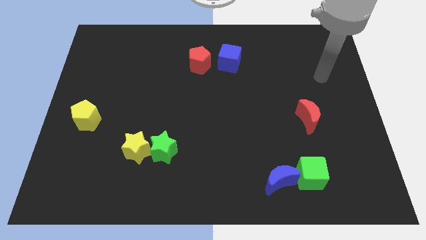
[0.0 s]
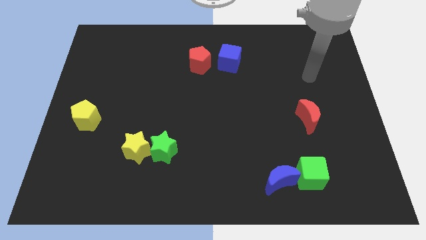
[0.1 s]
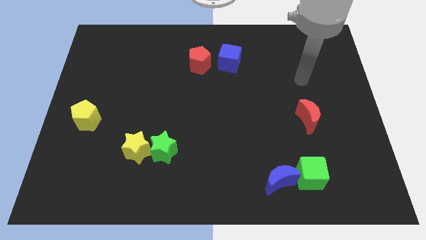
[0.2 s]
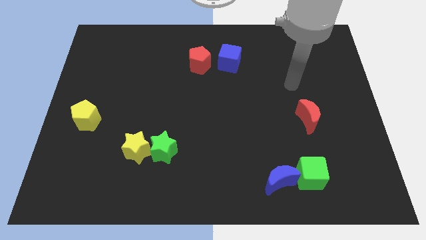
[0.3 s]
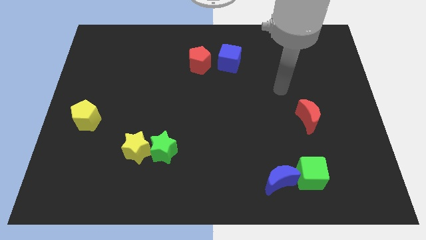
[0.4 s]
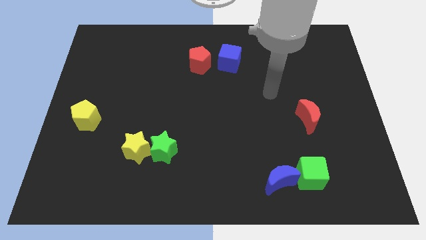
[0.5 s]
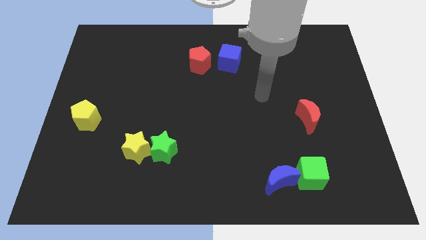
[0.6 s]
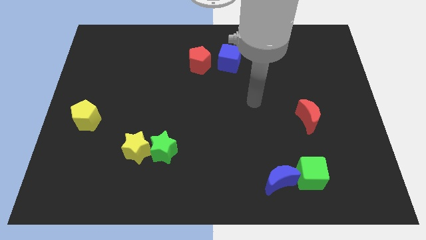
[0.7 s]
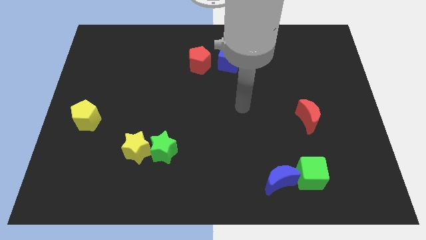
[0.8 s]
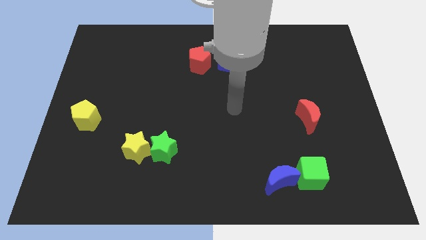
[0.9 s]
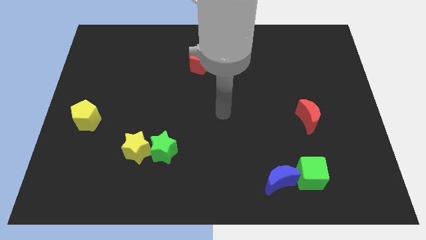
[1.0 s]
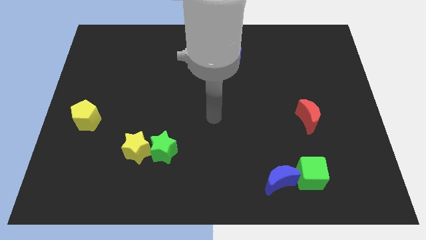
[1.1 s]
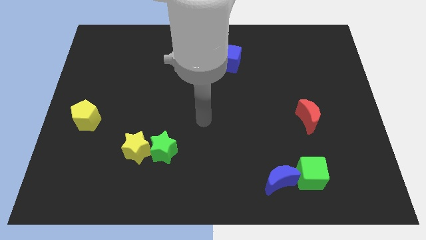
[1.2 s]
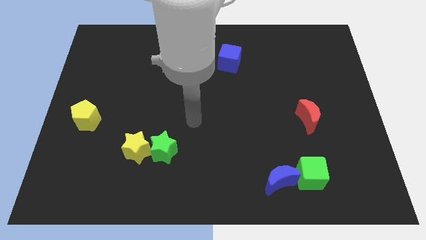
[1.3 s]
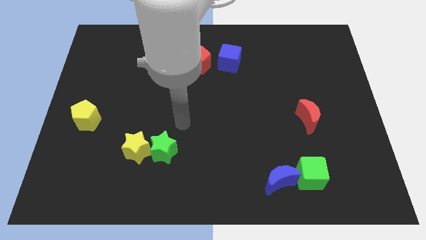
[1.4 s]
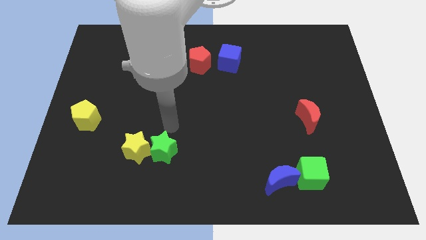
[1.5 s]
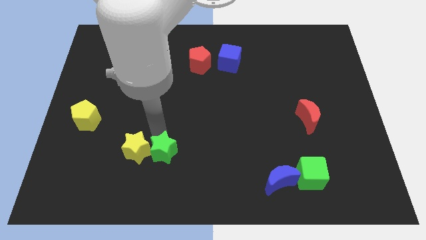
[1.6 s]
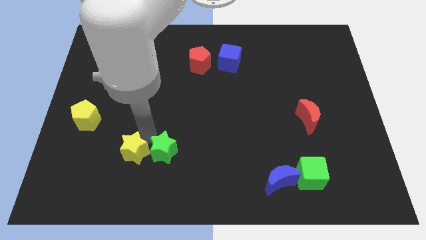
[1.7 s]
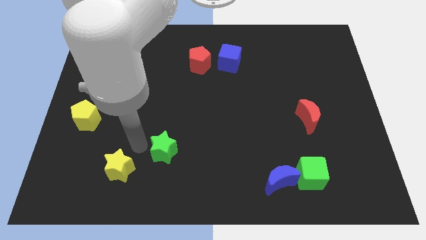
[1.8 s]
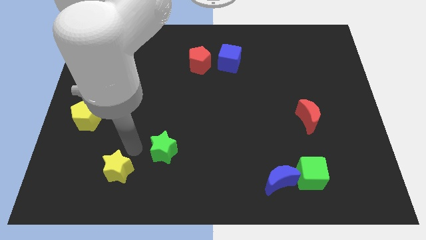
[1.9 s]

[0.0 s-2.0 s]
pull the green star apart from the yellow star

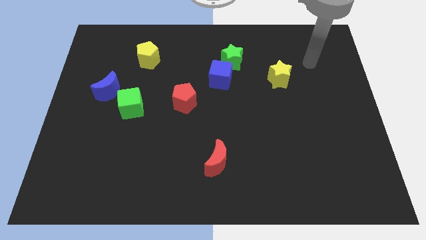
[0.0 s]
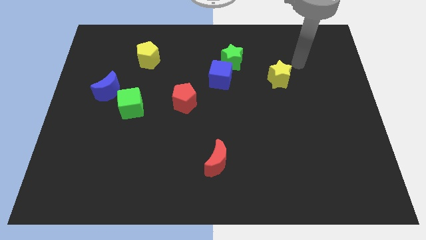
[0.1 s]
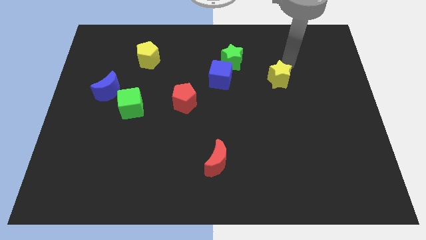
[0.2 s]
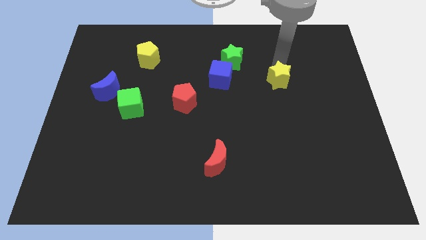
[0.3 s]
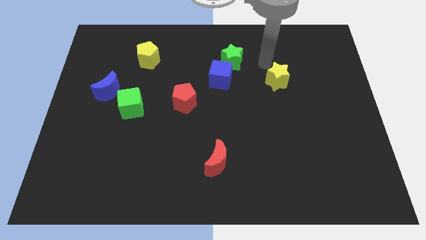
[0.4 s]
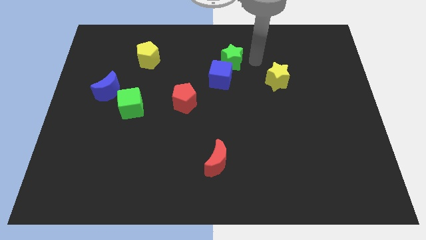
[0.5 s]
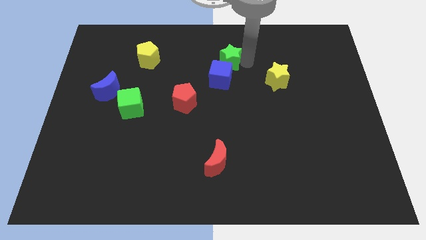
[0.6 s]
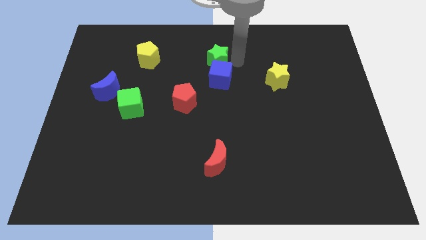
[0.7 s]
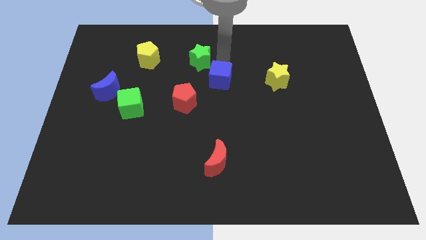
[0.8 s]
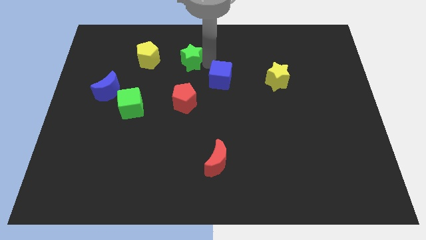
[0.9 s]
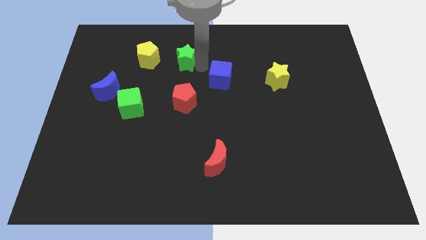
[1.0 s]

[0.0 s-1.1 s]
move the blue cube away from the green star

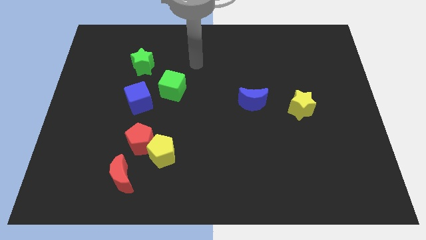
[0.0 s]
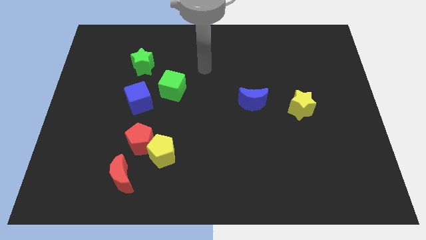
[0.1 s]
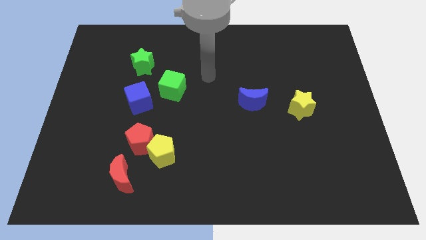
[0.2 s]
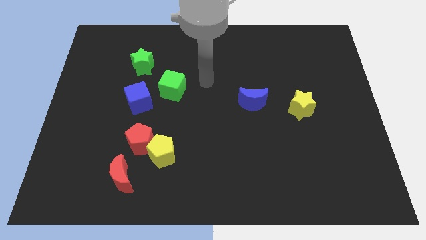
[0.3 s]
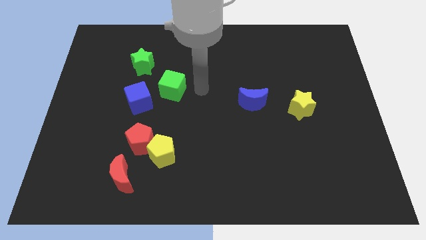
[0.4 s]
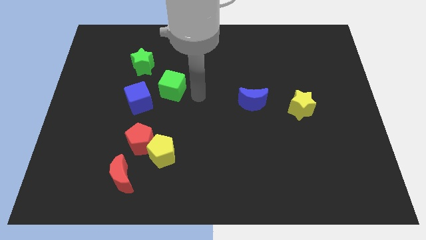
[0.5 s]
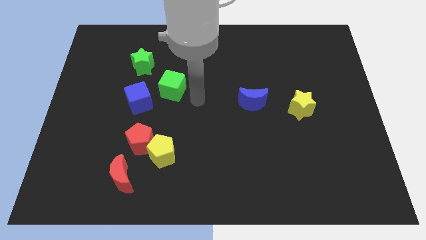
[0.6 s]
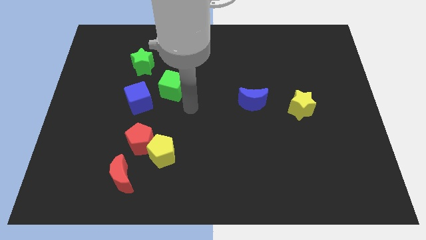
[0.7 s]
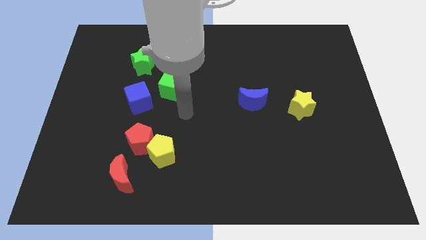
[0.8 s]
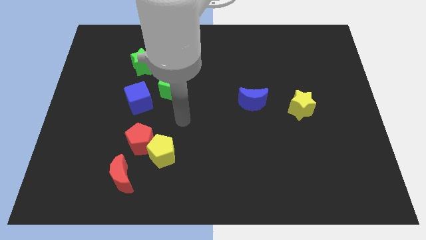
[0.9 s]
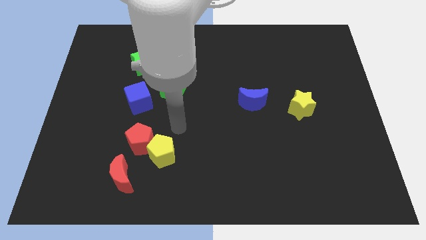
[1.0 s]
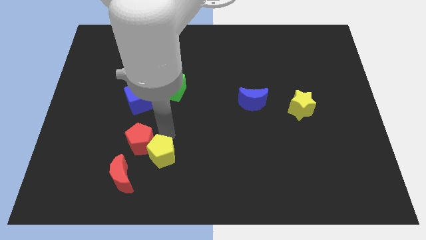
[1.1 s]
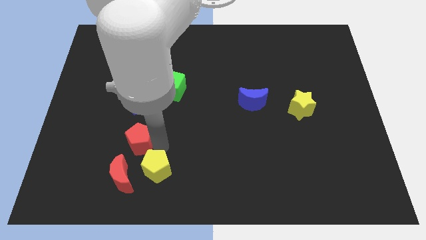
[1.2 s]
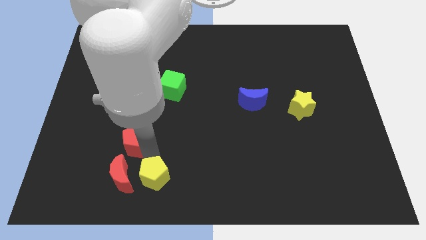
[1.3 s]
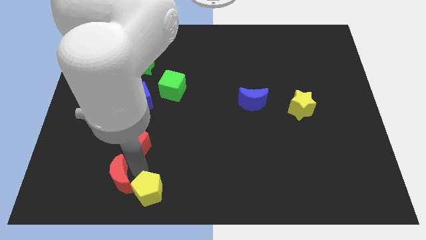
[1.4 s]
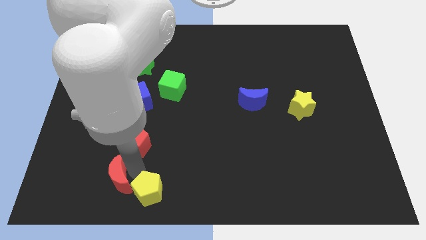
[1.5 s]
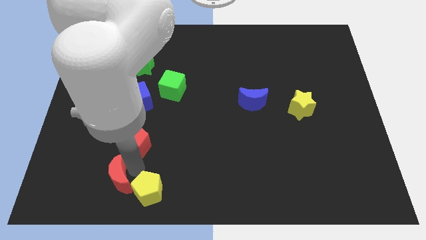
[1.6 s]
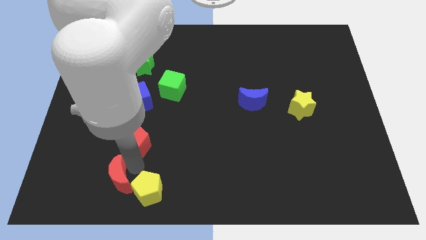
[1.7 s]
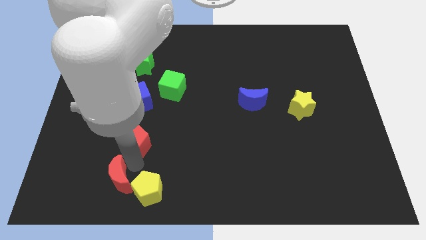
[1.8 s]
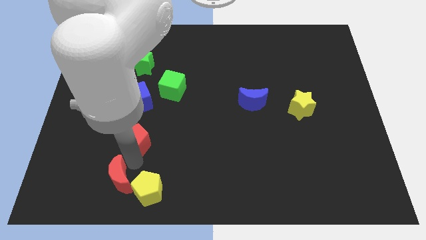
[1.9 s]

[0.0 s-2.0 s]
pull the red pentagon apart from the yellow pentagon and red moon

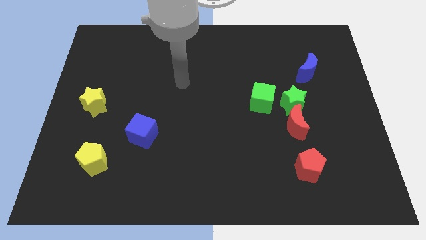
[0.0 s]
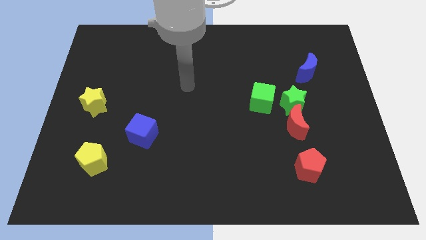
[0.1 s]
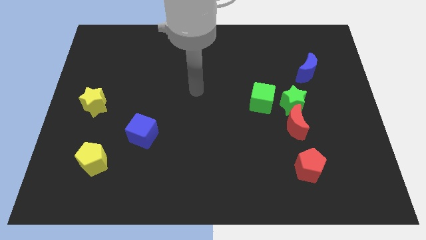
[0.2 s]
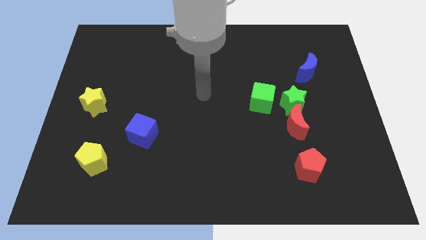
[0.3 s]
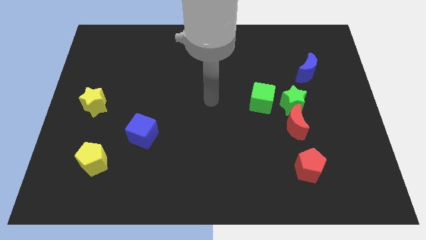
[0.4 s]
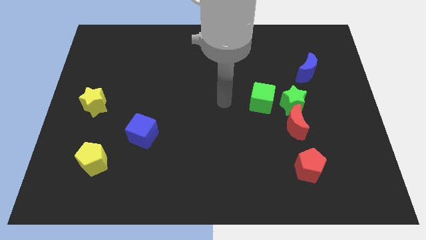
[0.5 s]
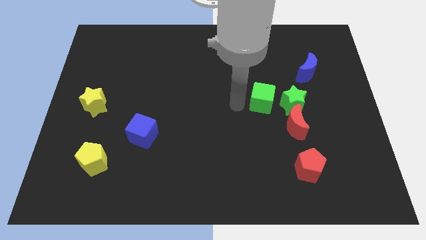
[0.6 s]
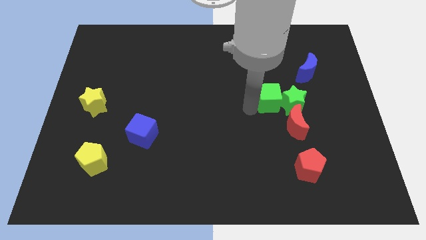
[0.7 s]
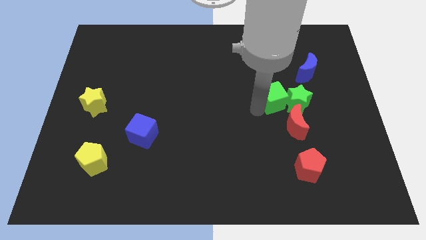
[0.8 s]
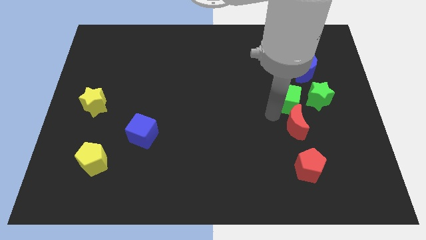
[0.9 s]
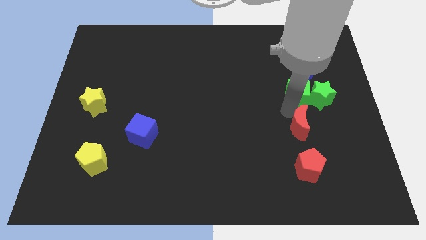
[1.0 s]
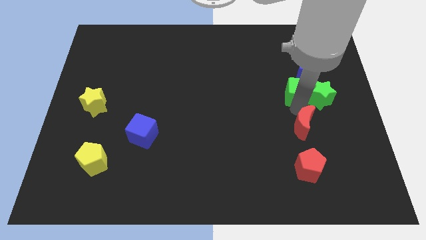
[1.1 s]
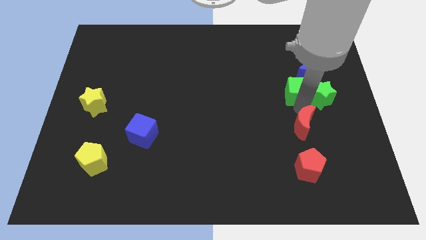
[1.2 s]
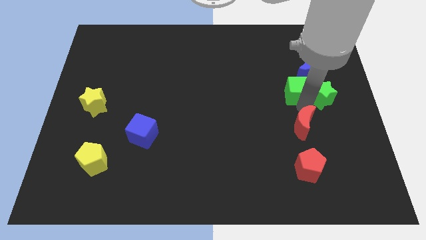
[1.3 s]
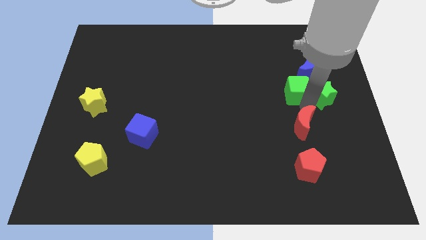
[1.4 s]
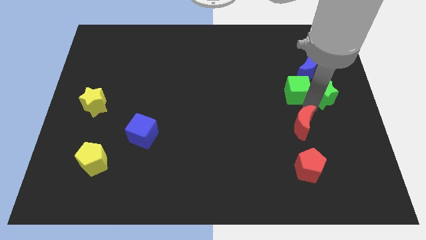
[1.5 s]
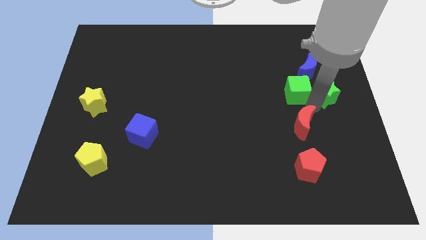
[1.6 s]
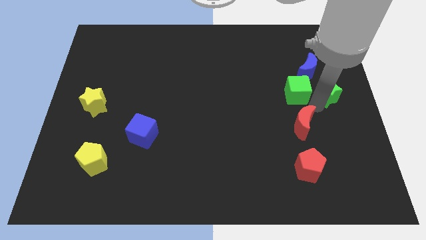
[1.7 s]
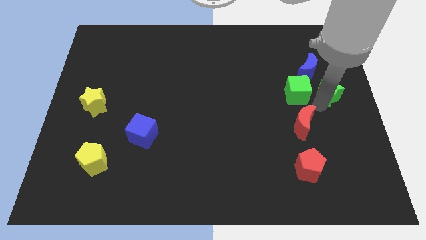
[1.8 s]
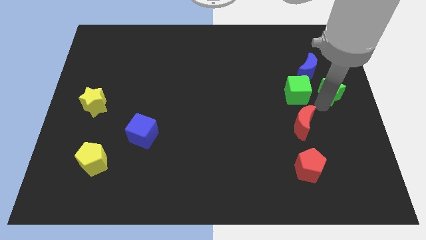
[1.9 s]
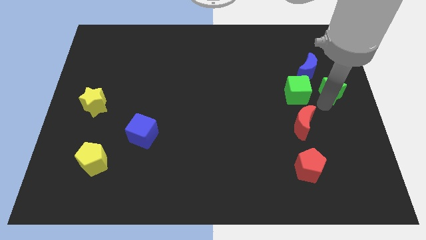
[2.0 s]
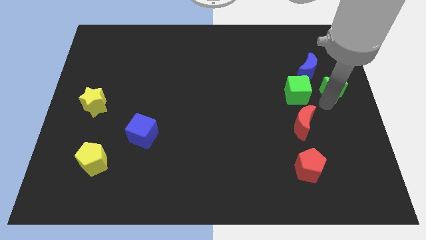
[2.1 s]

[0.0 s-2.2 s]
pull the green star apart from the red moon and green cube

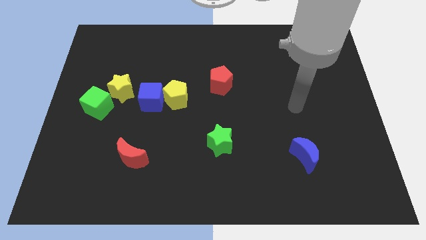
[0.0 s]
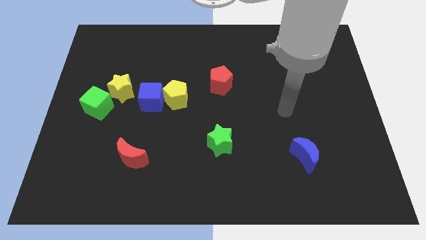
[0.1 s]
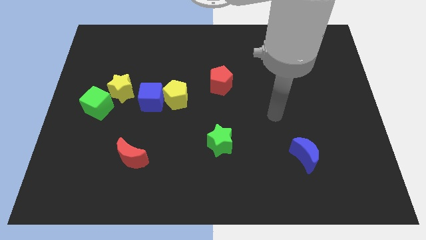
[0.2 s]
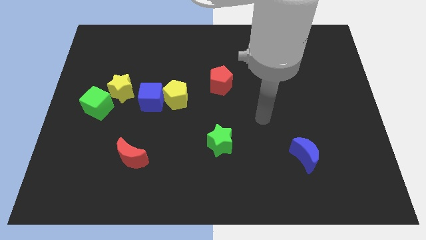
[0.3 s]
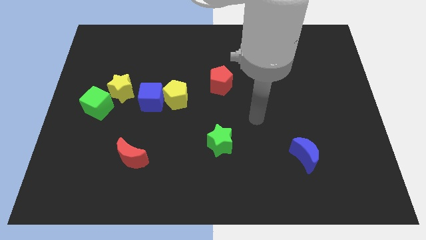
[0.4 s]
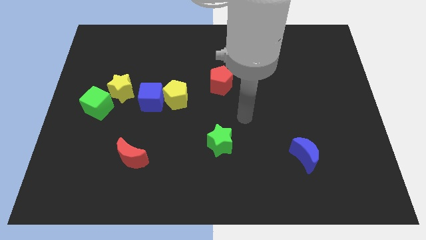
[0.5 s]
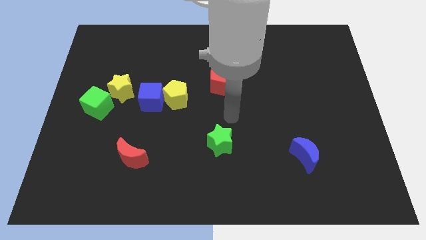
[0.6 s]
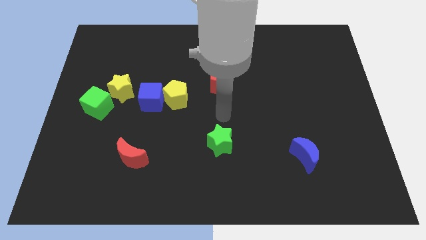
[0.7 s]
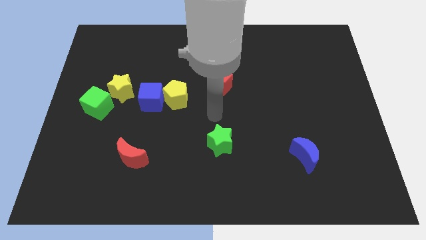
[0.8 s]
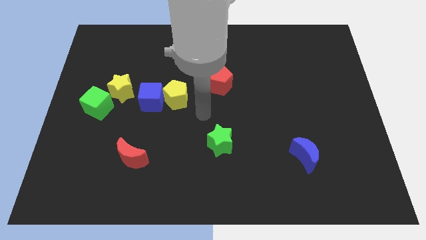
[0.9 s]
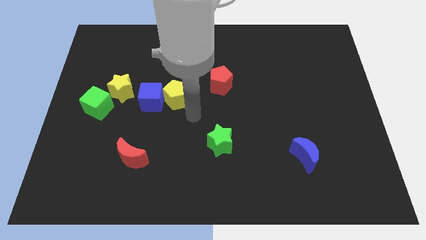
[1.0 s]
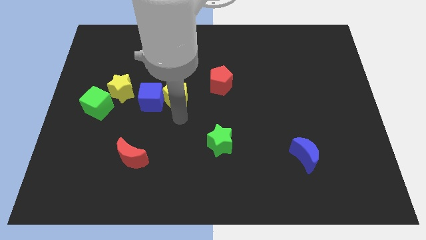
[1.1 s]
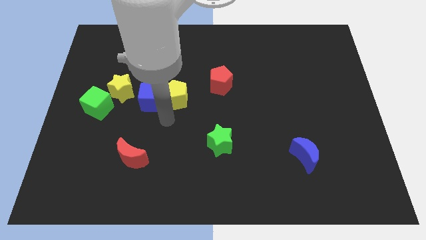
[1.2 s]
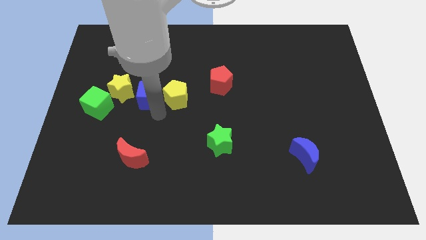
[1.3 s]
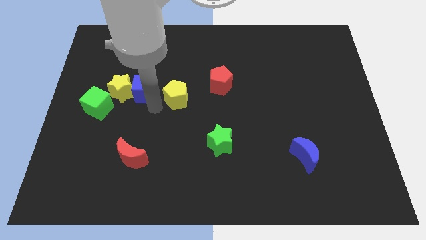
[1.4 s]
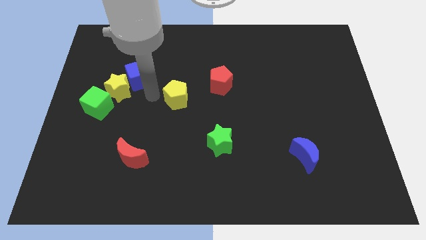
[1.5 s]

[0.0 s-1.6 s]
separate the yellow pentagon from the blue cube

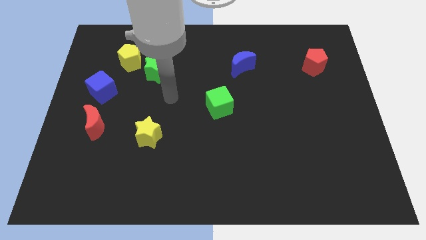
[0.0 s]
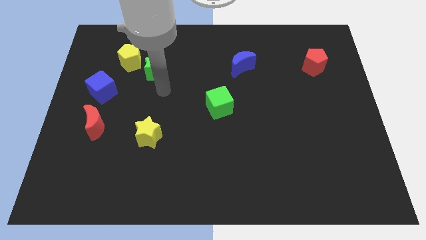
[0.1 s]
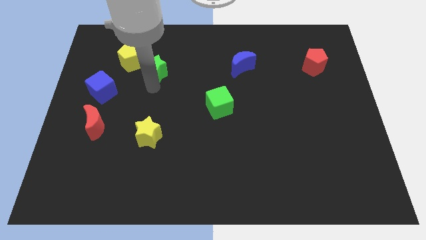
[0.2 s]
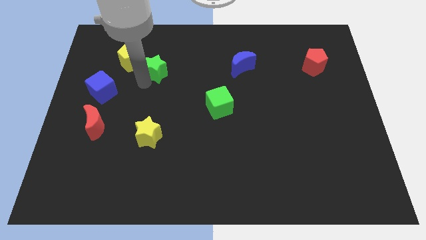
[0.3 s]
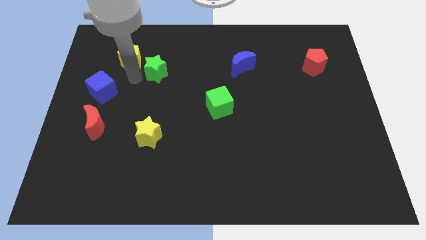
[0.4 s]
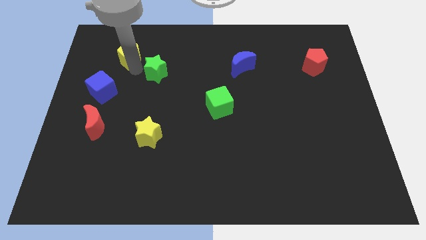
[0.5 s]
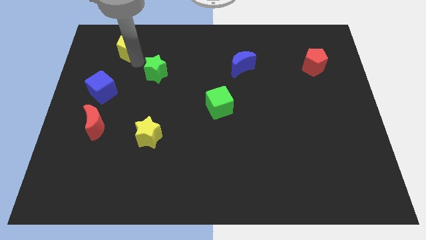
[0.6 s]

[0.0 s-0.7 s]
separate the green star from the yellow pentagon
